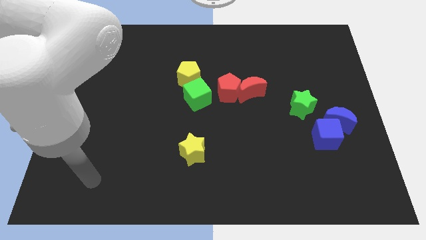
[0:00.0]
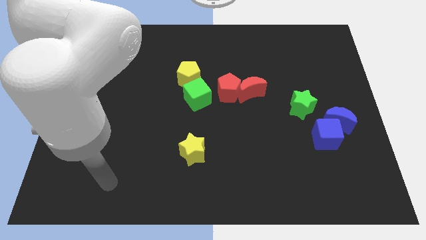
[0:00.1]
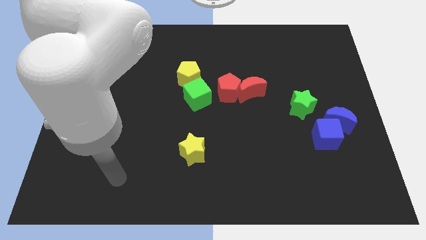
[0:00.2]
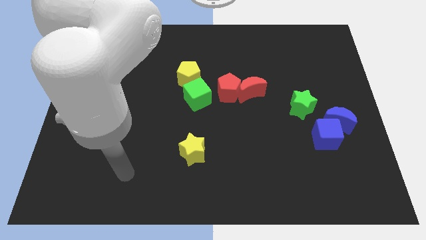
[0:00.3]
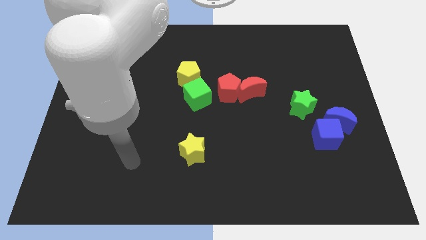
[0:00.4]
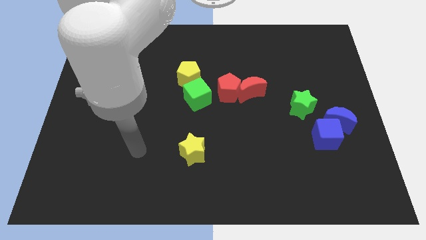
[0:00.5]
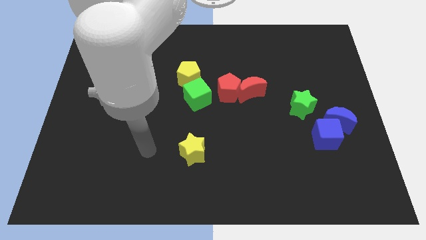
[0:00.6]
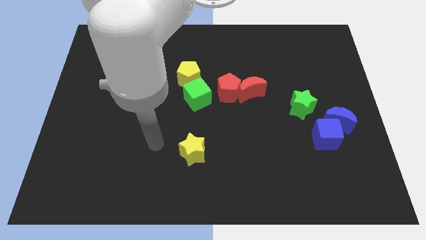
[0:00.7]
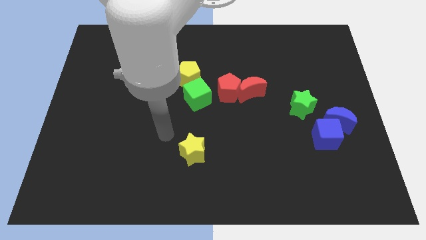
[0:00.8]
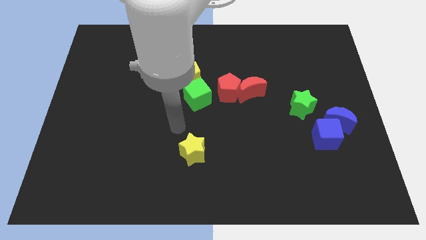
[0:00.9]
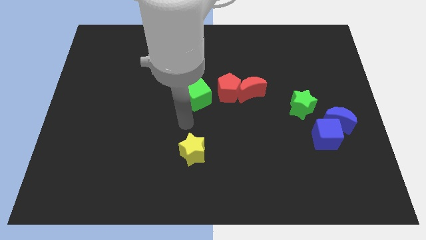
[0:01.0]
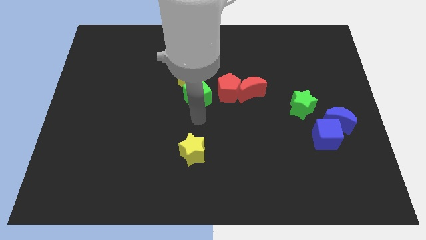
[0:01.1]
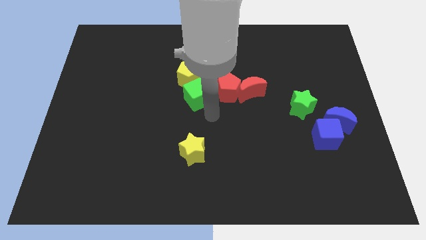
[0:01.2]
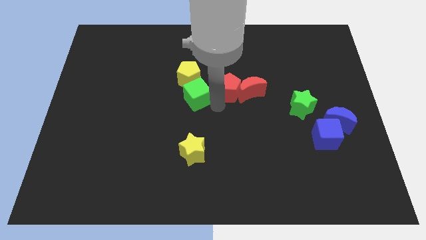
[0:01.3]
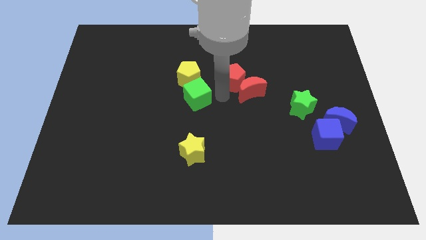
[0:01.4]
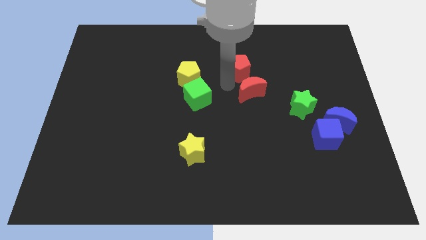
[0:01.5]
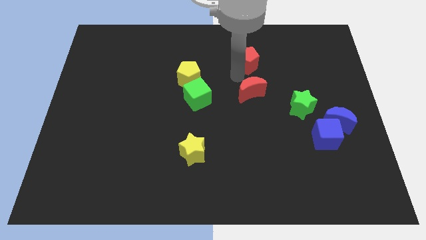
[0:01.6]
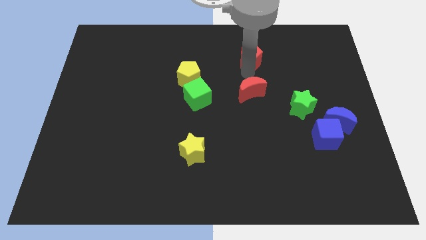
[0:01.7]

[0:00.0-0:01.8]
move the red moon away from the red pentagon

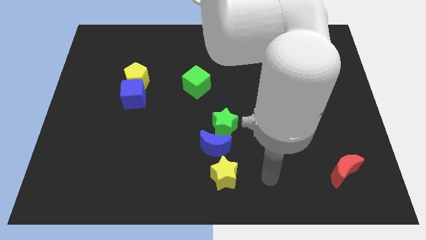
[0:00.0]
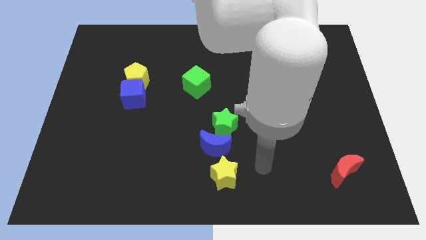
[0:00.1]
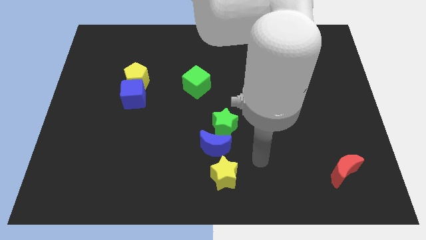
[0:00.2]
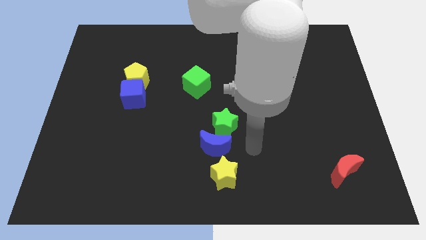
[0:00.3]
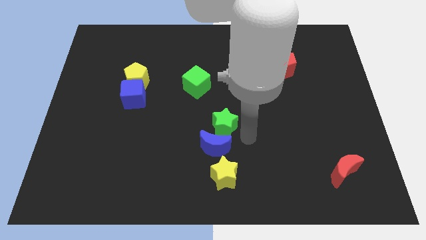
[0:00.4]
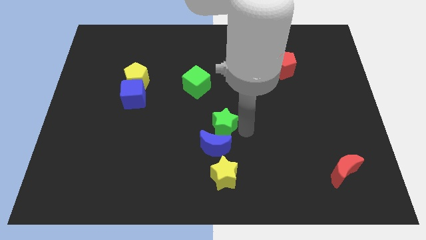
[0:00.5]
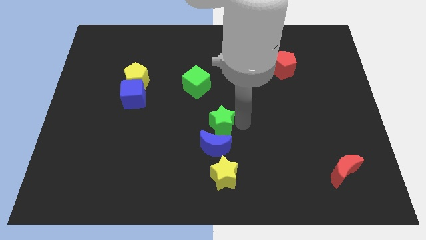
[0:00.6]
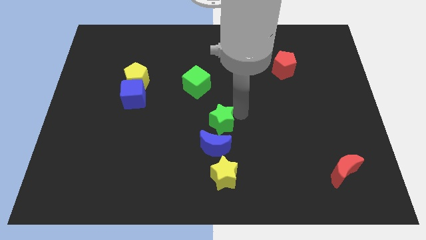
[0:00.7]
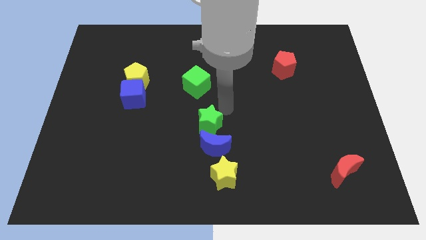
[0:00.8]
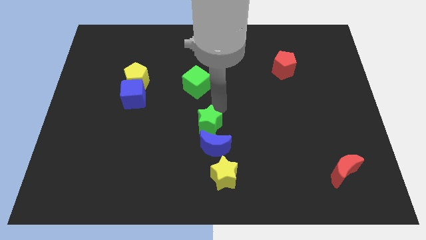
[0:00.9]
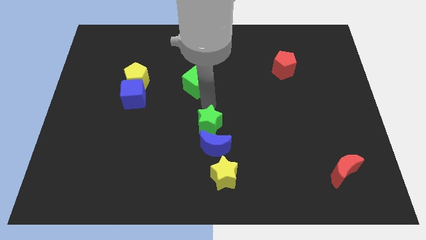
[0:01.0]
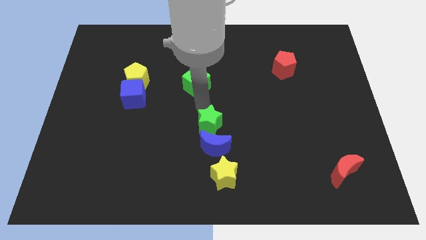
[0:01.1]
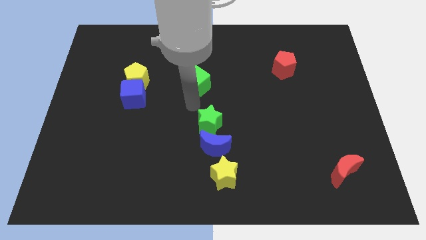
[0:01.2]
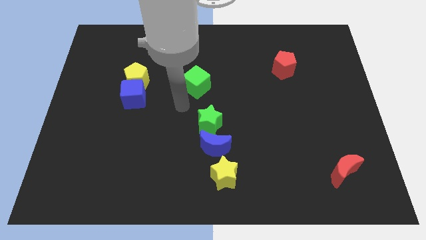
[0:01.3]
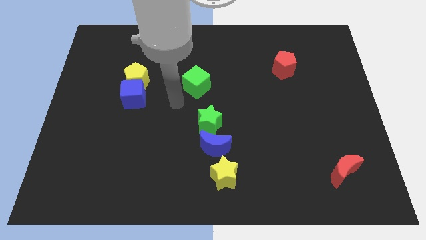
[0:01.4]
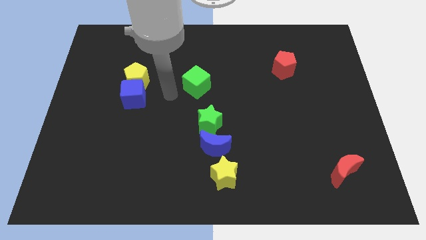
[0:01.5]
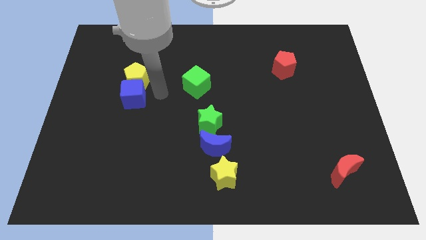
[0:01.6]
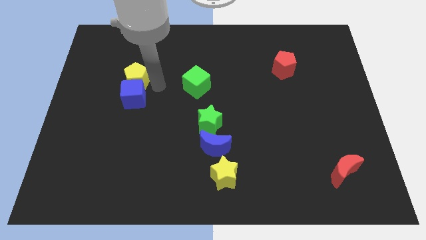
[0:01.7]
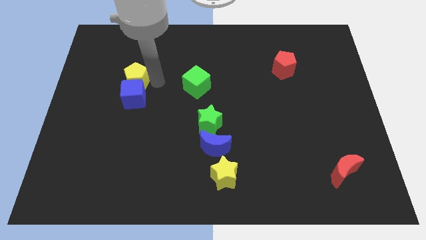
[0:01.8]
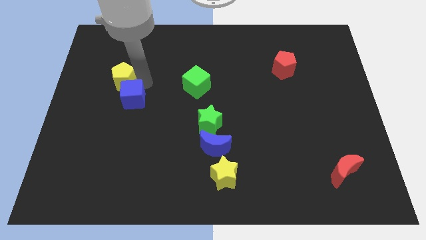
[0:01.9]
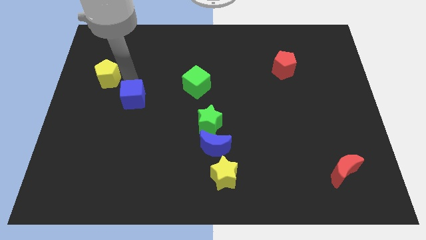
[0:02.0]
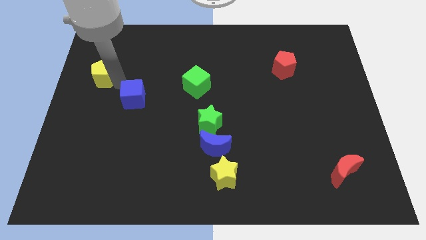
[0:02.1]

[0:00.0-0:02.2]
move the blue cube away from the yellow pentagon

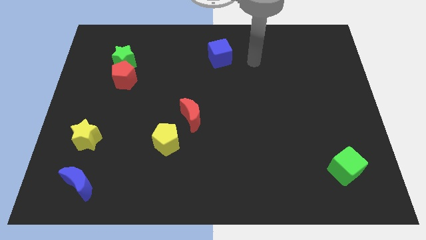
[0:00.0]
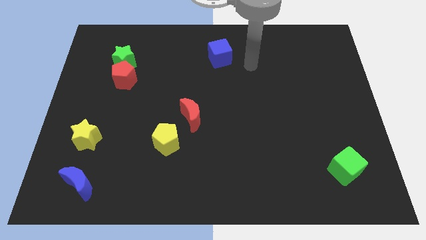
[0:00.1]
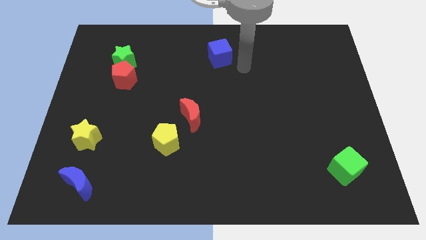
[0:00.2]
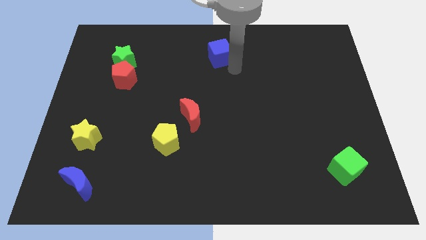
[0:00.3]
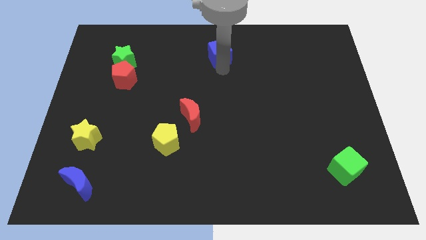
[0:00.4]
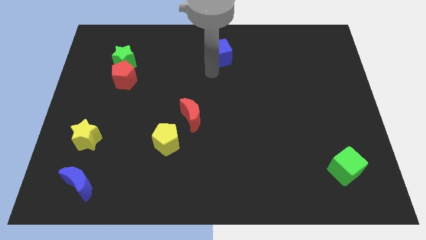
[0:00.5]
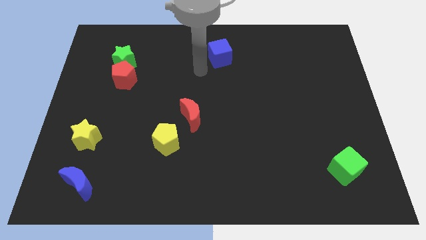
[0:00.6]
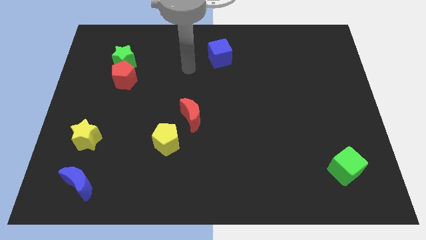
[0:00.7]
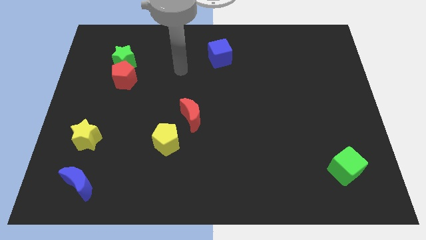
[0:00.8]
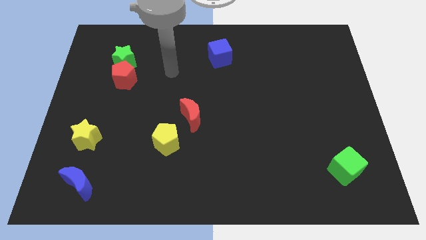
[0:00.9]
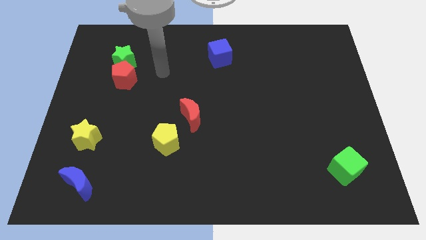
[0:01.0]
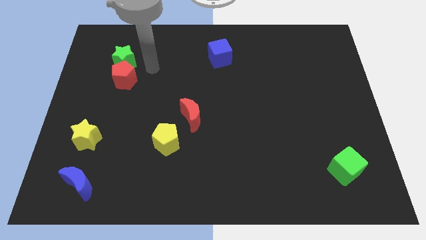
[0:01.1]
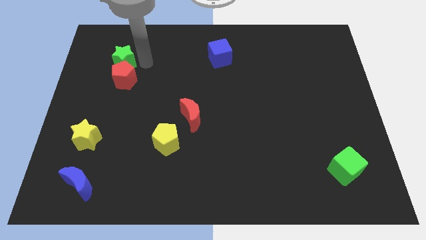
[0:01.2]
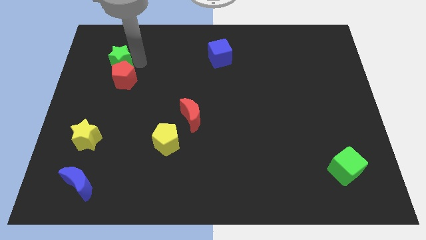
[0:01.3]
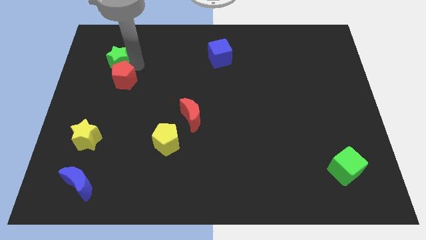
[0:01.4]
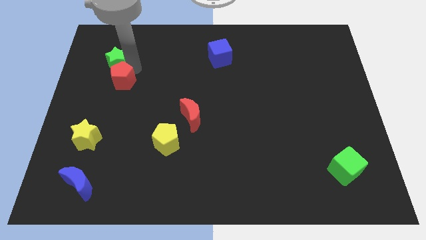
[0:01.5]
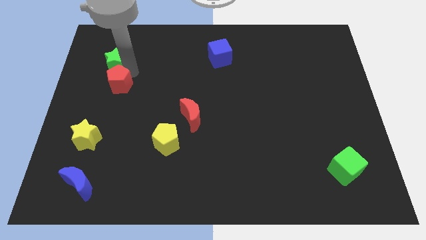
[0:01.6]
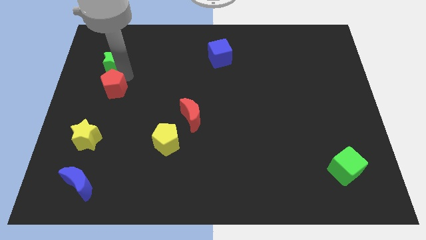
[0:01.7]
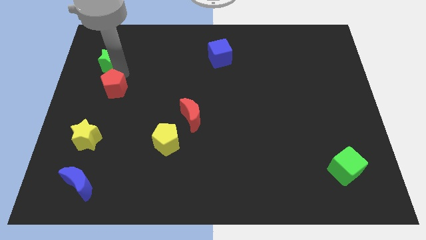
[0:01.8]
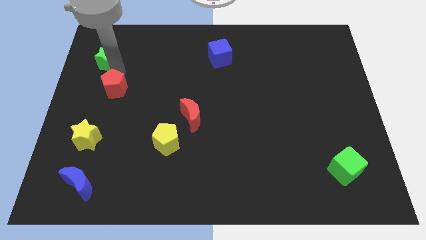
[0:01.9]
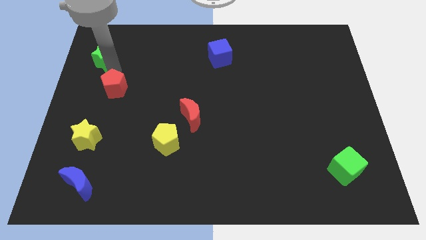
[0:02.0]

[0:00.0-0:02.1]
move the red pentagon away from the green star

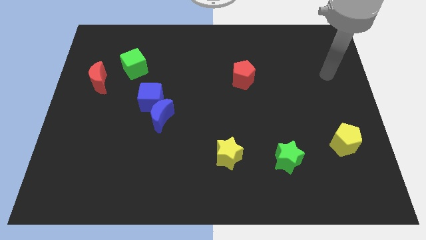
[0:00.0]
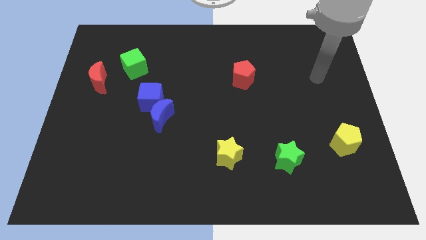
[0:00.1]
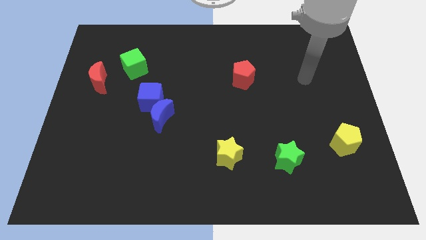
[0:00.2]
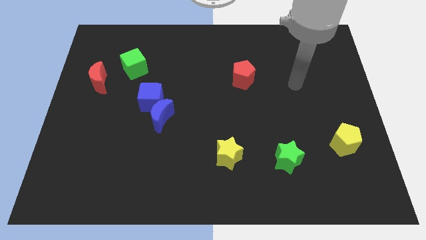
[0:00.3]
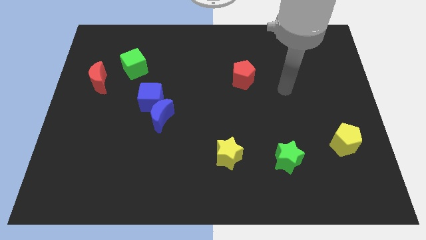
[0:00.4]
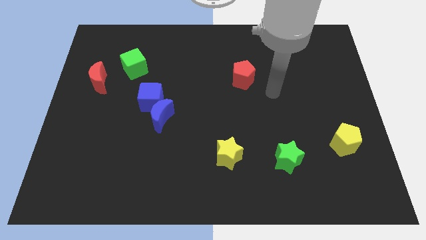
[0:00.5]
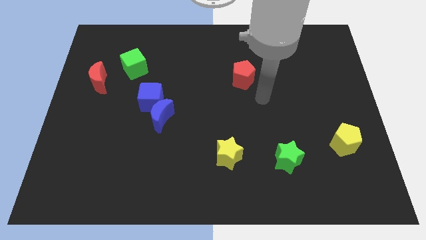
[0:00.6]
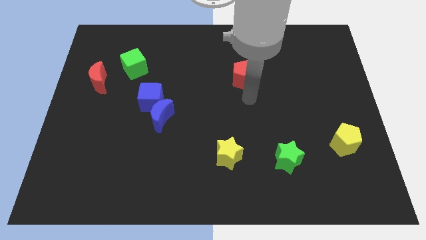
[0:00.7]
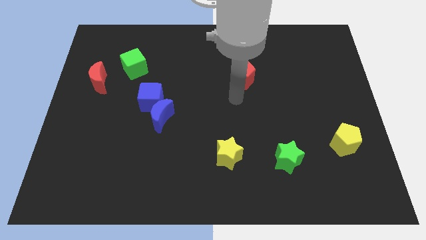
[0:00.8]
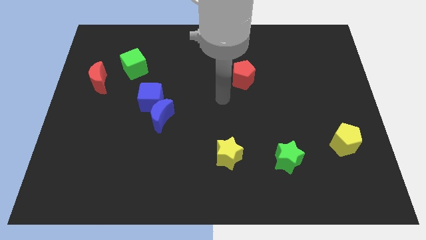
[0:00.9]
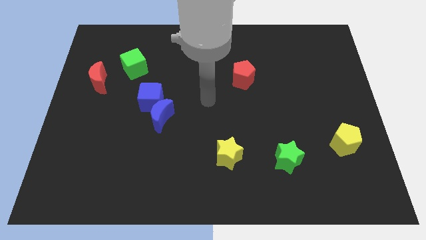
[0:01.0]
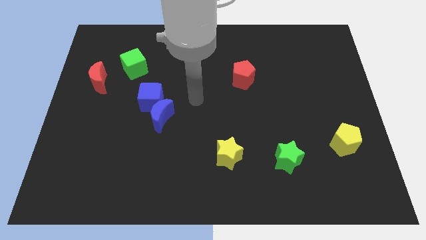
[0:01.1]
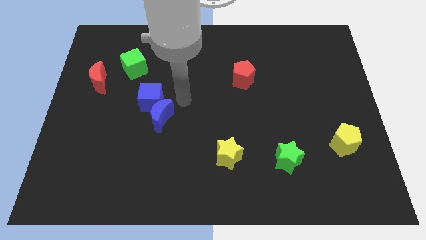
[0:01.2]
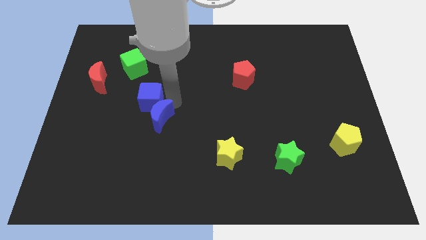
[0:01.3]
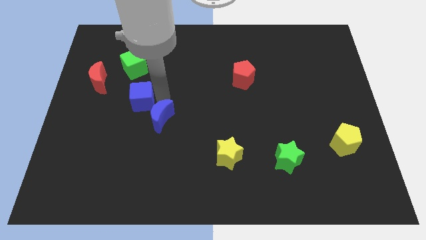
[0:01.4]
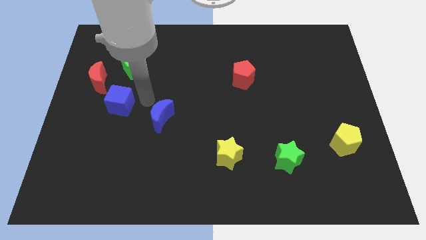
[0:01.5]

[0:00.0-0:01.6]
separate the blue moon from the blue cube

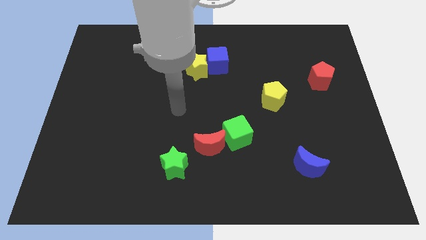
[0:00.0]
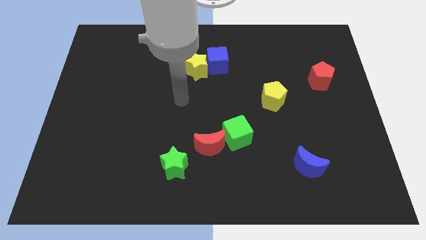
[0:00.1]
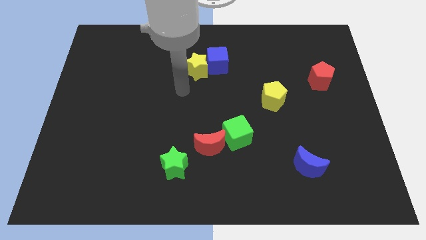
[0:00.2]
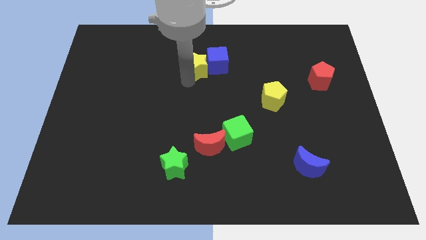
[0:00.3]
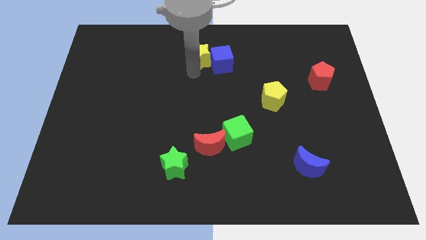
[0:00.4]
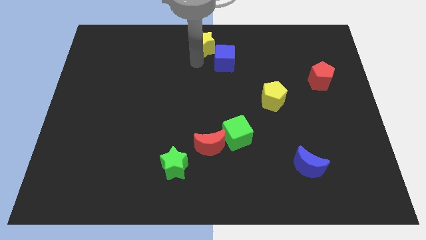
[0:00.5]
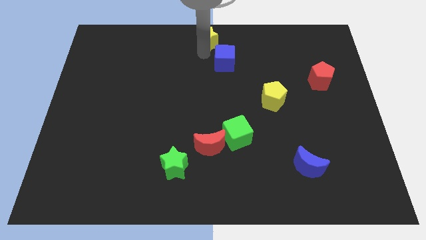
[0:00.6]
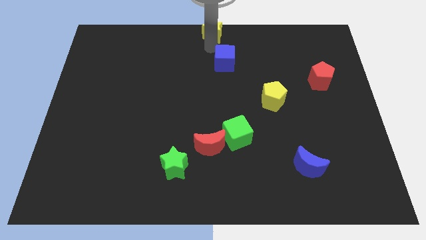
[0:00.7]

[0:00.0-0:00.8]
separate the blue cube from the yellow star

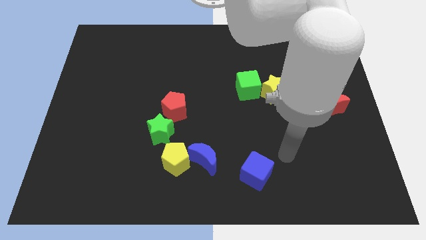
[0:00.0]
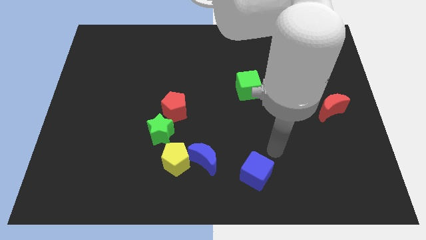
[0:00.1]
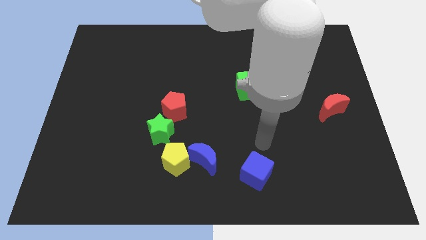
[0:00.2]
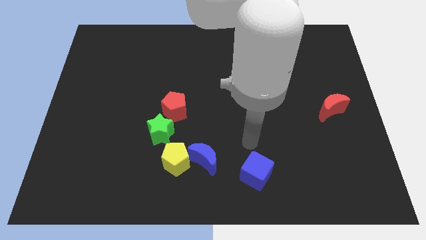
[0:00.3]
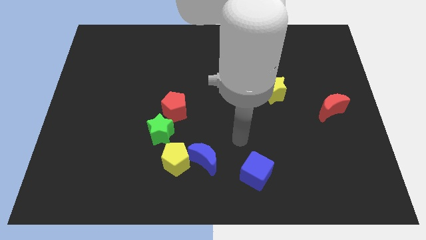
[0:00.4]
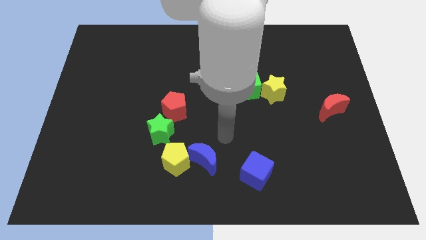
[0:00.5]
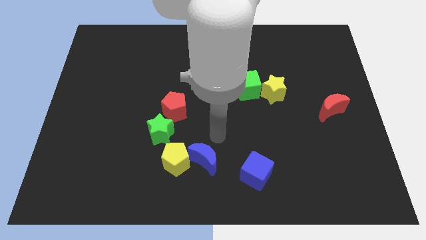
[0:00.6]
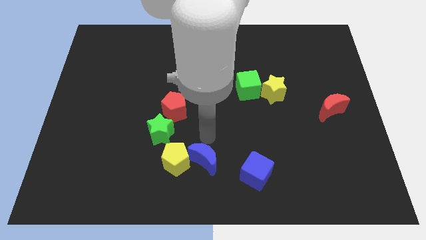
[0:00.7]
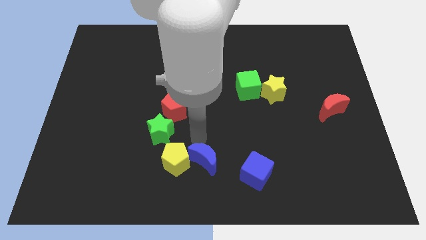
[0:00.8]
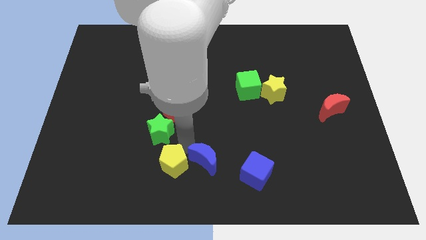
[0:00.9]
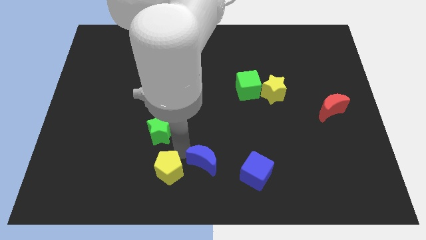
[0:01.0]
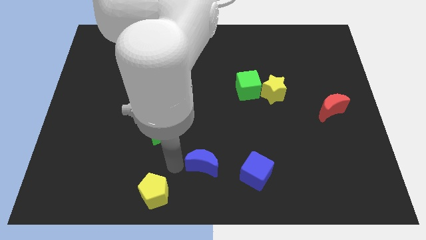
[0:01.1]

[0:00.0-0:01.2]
move the blue moon away from the yellow pentagon
